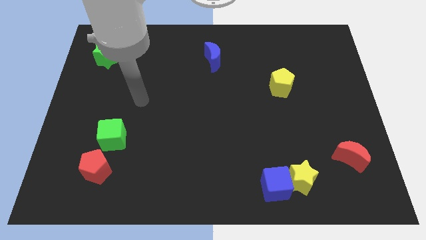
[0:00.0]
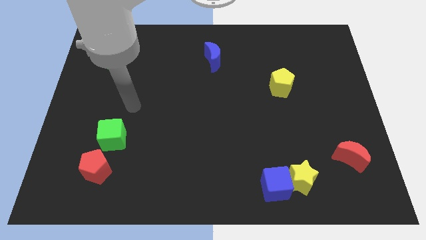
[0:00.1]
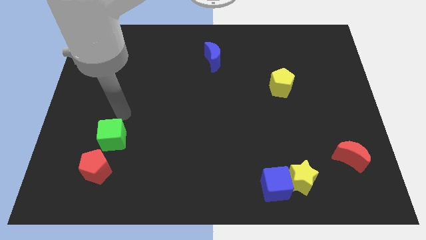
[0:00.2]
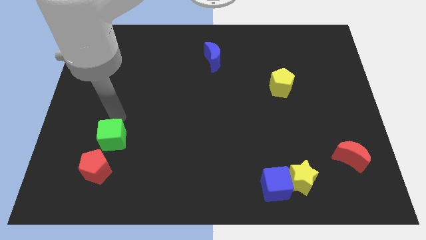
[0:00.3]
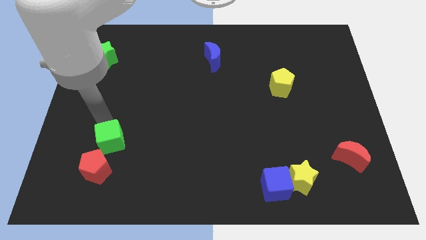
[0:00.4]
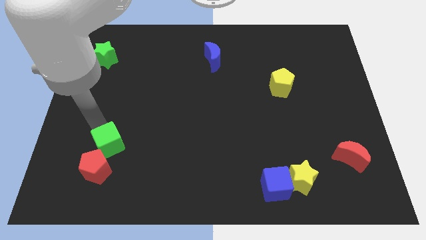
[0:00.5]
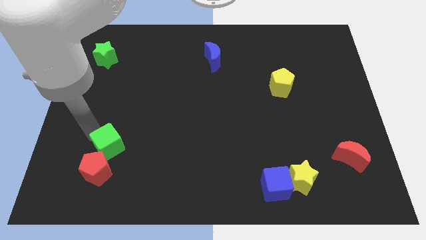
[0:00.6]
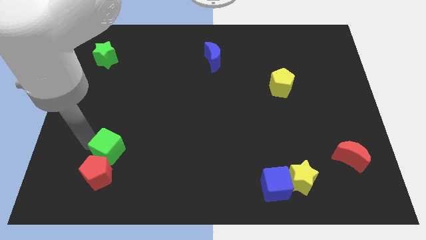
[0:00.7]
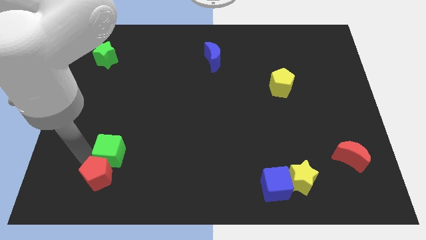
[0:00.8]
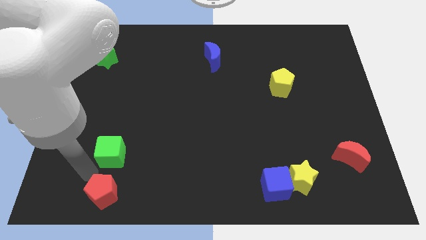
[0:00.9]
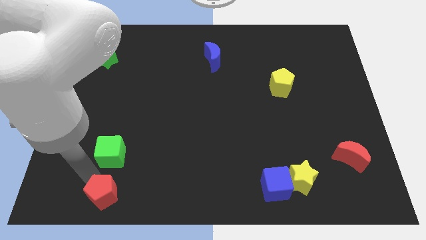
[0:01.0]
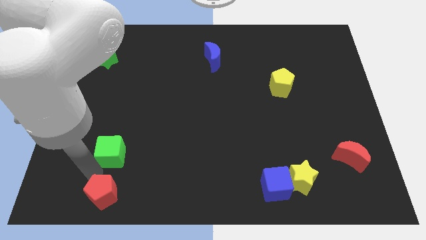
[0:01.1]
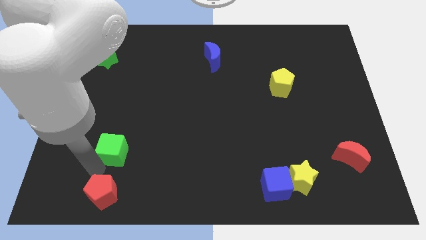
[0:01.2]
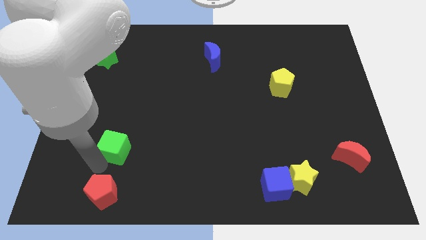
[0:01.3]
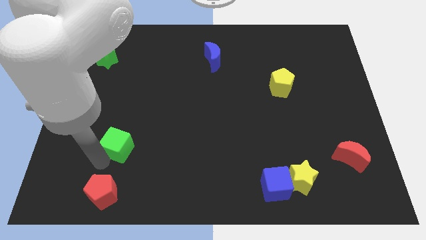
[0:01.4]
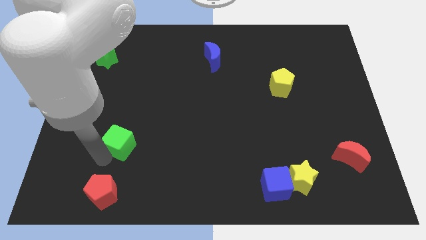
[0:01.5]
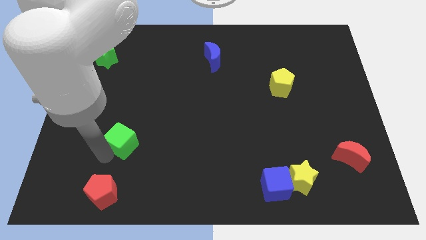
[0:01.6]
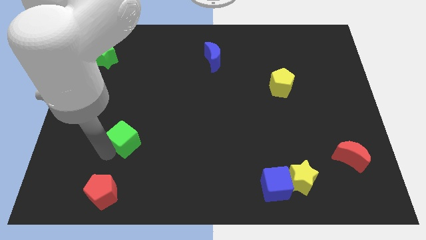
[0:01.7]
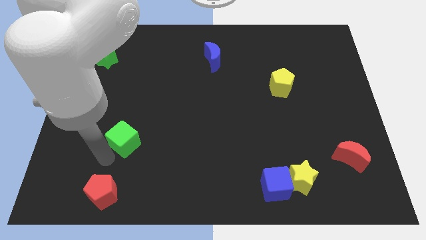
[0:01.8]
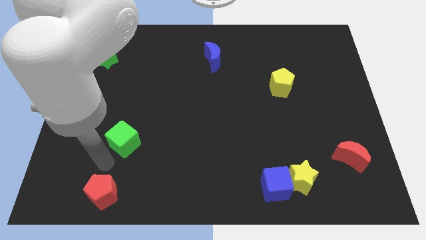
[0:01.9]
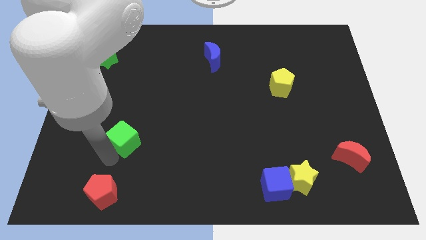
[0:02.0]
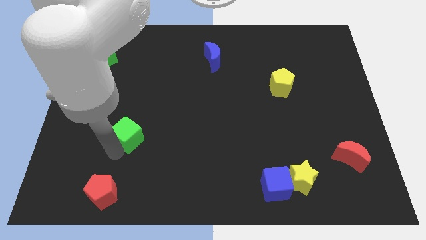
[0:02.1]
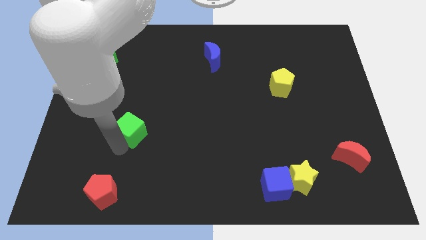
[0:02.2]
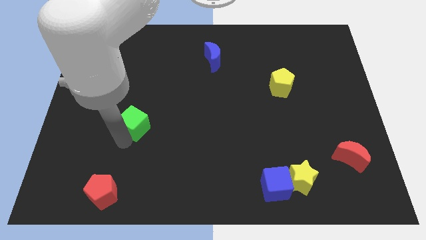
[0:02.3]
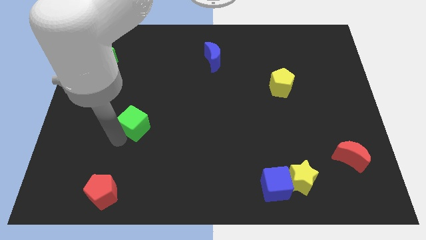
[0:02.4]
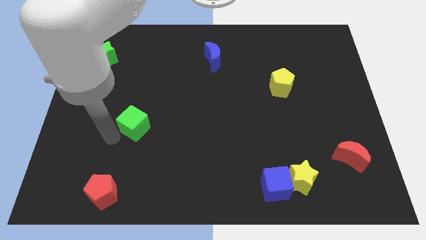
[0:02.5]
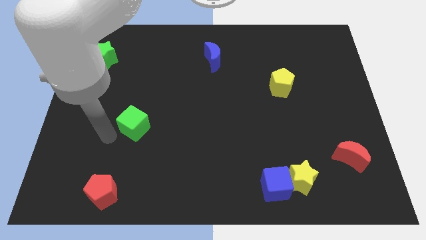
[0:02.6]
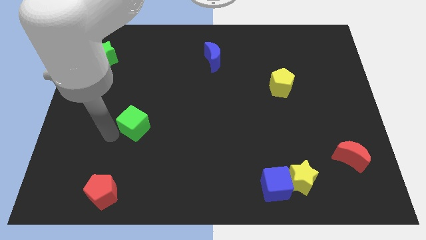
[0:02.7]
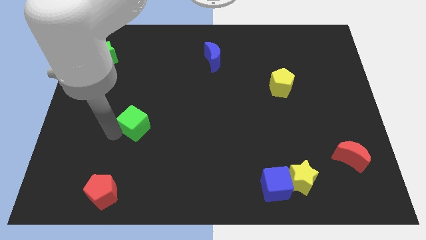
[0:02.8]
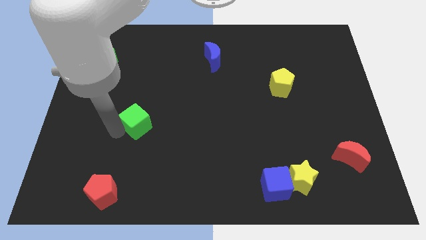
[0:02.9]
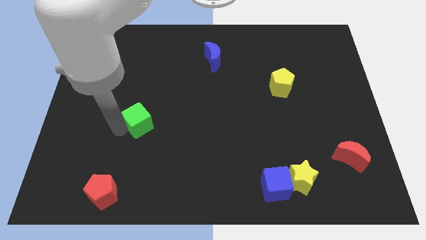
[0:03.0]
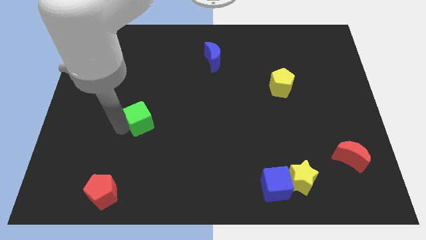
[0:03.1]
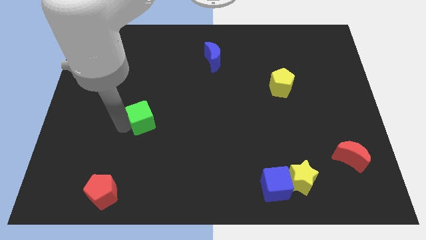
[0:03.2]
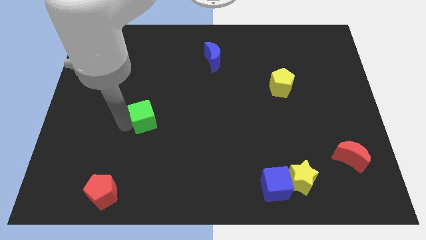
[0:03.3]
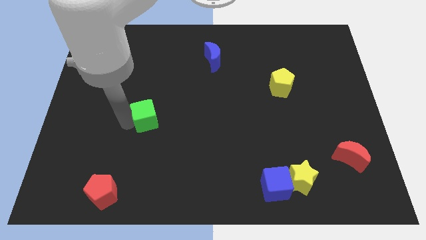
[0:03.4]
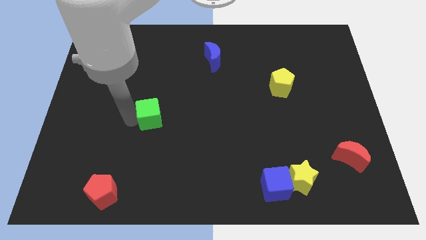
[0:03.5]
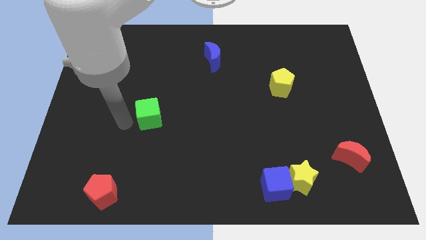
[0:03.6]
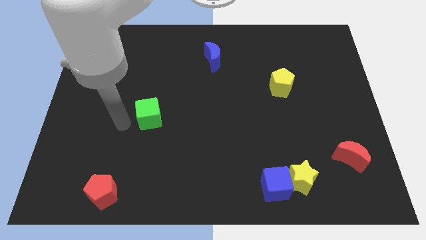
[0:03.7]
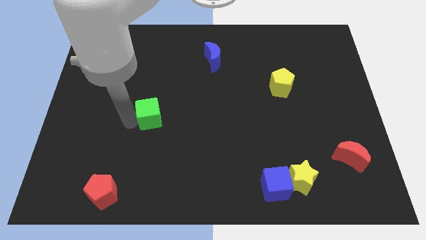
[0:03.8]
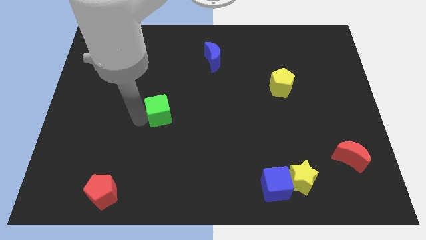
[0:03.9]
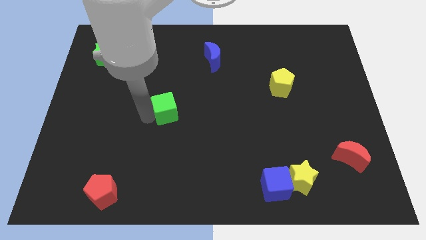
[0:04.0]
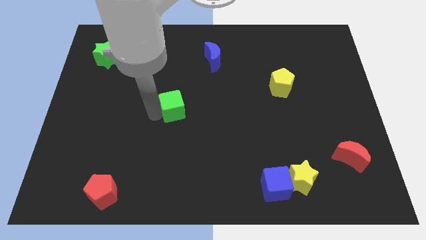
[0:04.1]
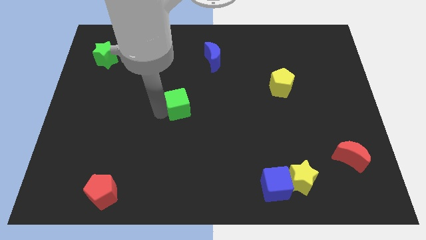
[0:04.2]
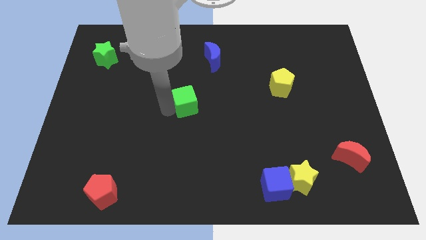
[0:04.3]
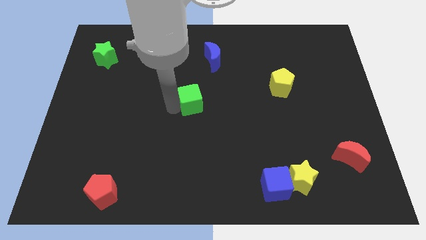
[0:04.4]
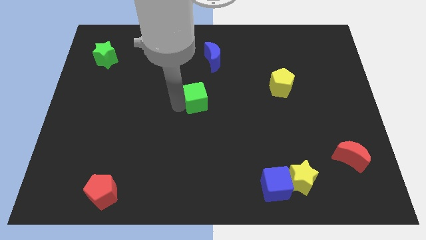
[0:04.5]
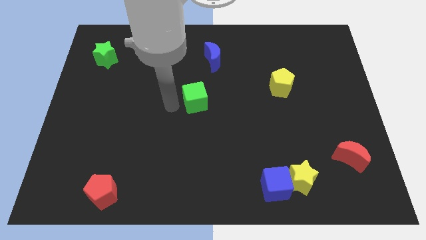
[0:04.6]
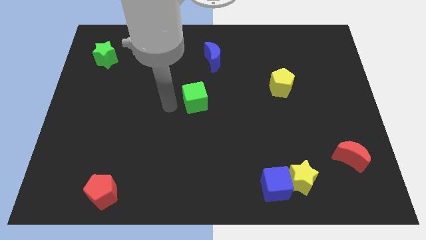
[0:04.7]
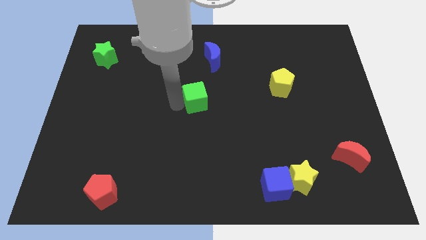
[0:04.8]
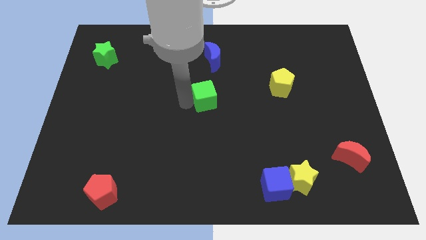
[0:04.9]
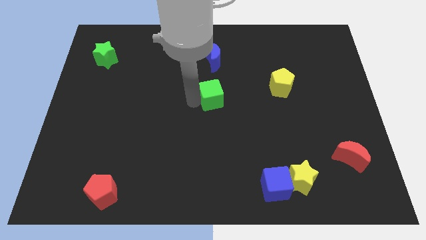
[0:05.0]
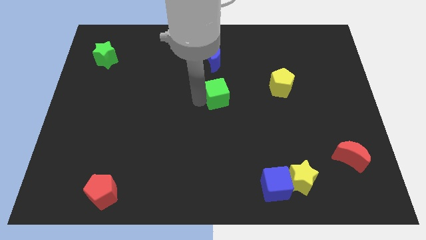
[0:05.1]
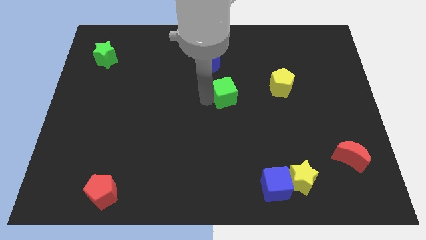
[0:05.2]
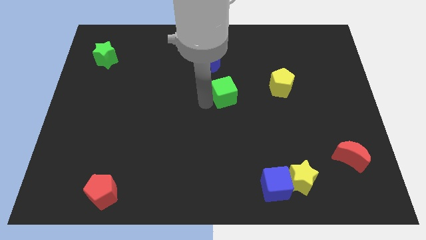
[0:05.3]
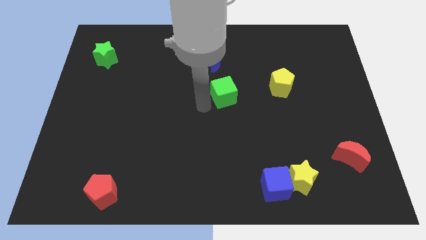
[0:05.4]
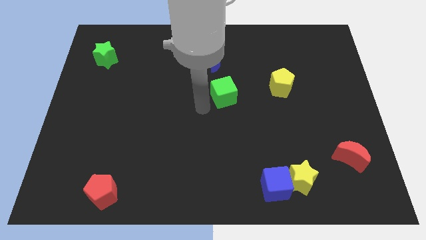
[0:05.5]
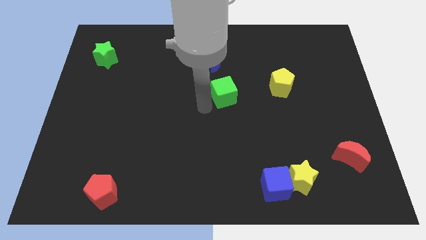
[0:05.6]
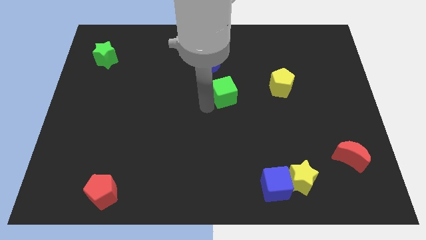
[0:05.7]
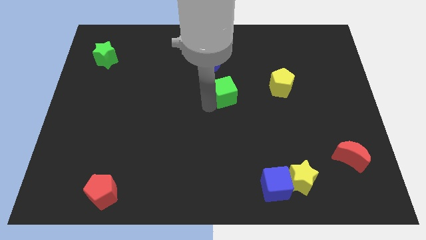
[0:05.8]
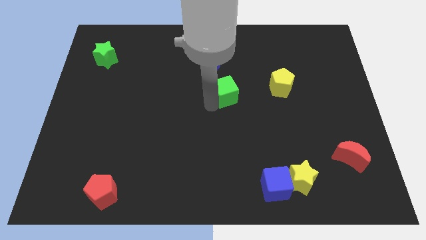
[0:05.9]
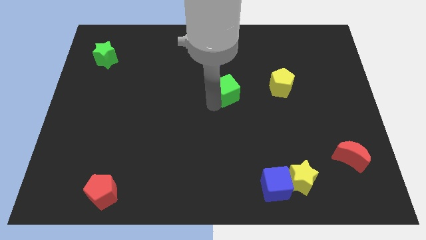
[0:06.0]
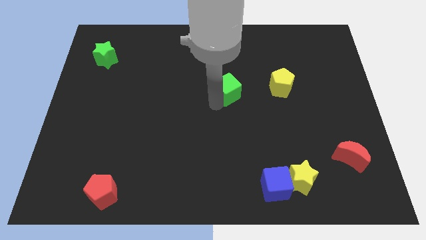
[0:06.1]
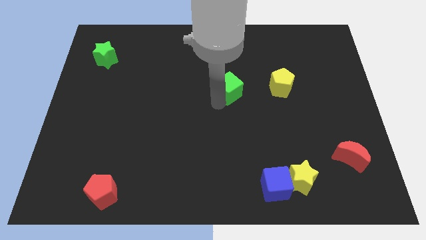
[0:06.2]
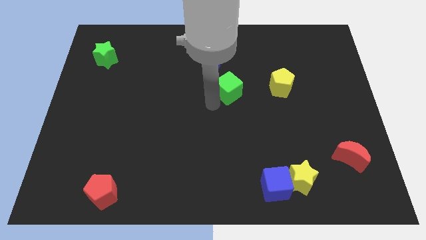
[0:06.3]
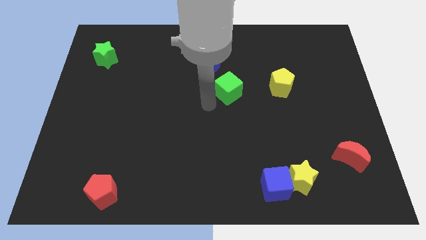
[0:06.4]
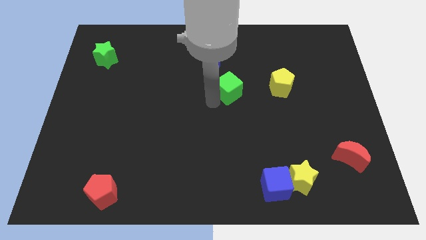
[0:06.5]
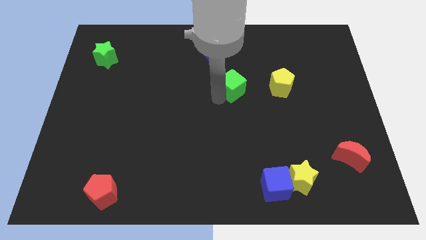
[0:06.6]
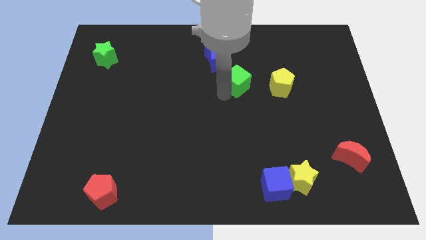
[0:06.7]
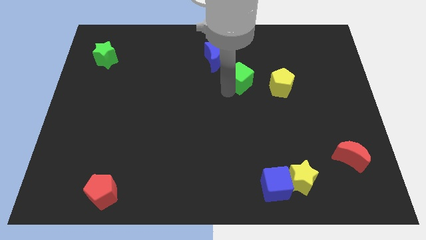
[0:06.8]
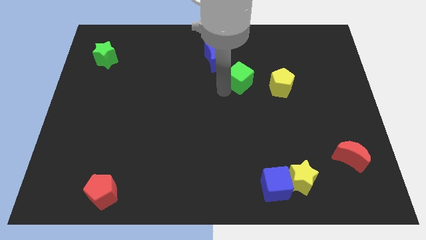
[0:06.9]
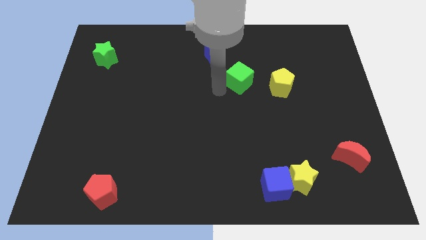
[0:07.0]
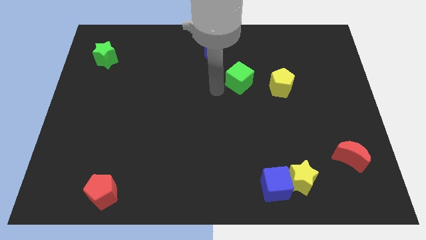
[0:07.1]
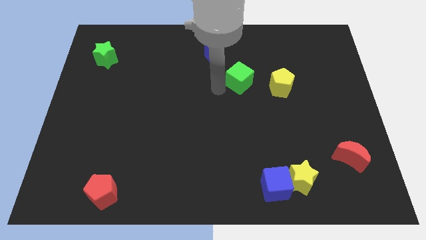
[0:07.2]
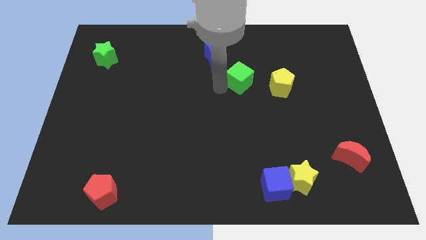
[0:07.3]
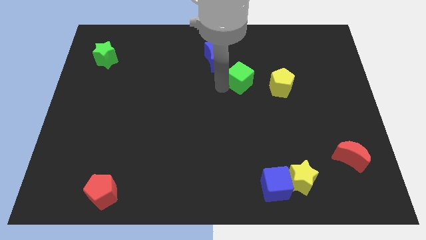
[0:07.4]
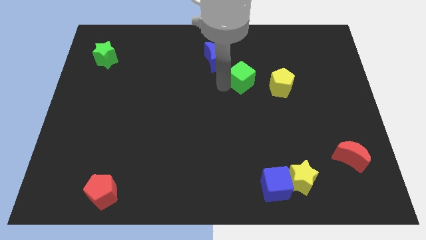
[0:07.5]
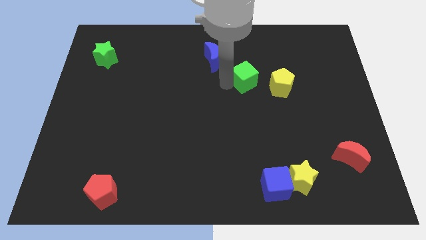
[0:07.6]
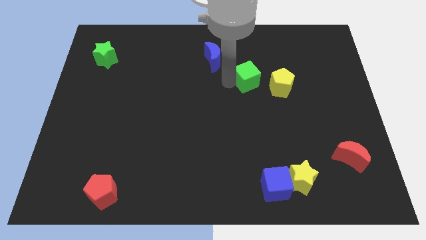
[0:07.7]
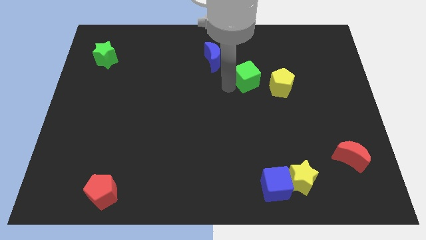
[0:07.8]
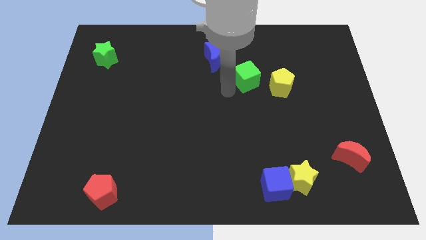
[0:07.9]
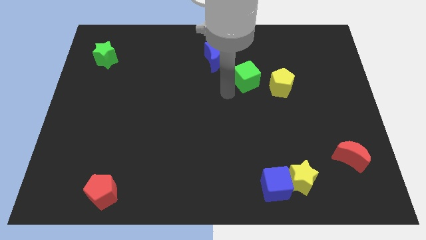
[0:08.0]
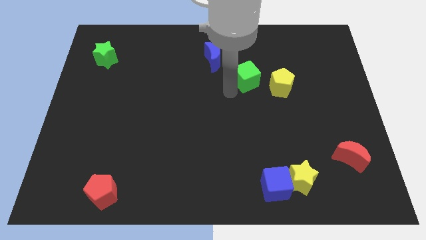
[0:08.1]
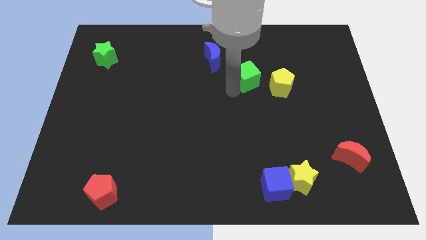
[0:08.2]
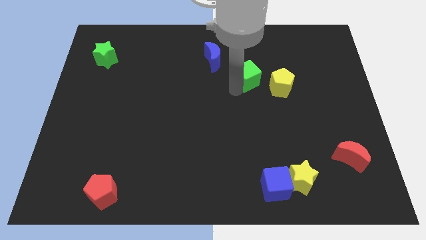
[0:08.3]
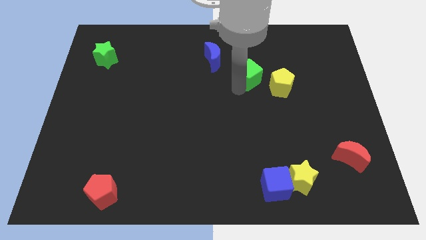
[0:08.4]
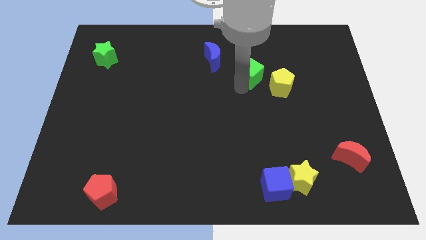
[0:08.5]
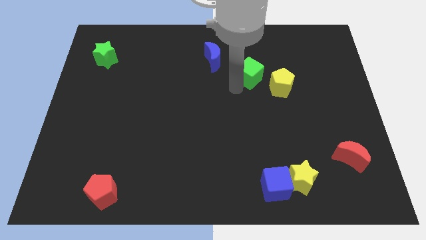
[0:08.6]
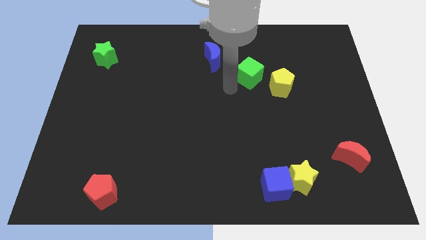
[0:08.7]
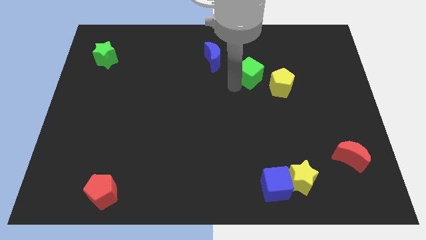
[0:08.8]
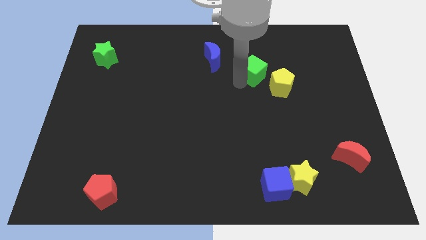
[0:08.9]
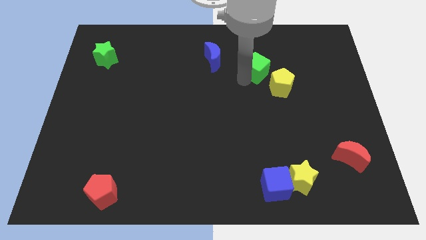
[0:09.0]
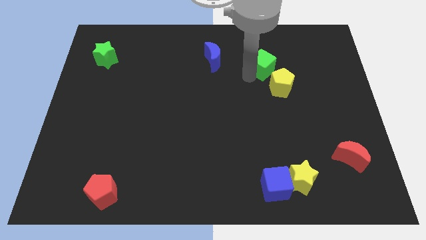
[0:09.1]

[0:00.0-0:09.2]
move the green cube above the yellow pentagon
